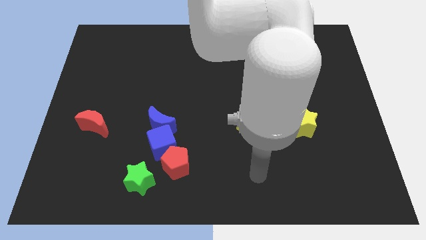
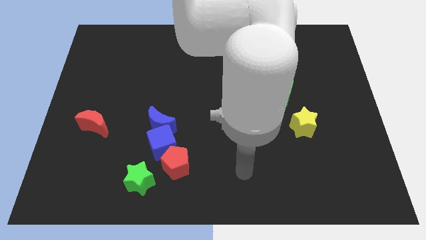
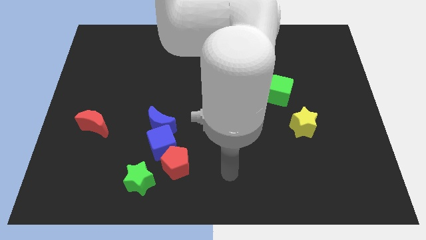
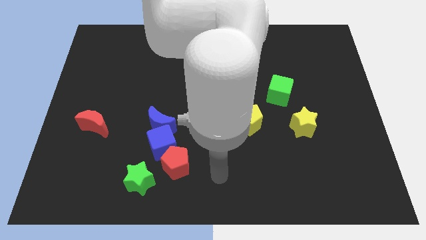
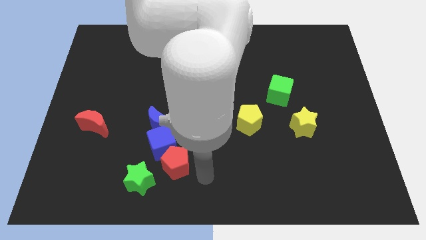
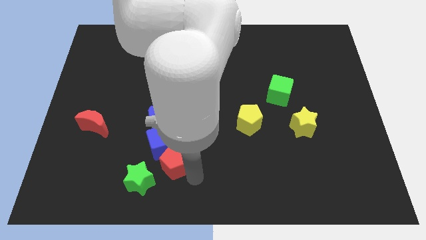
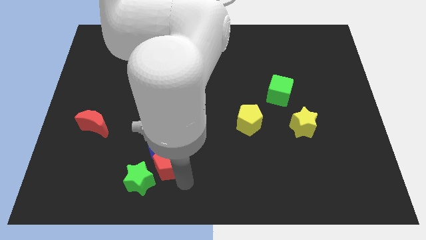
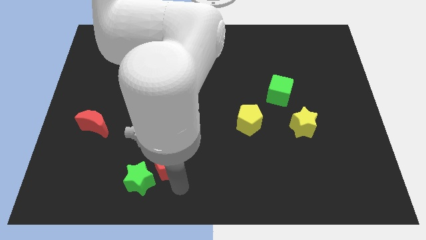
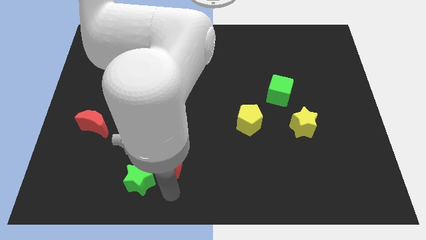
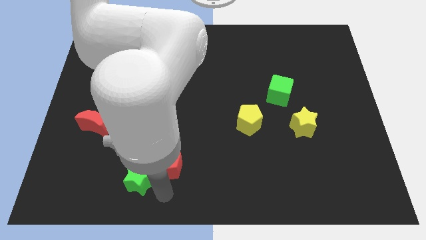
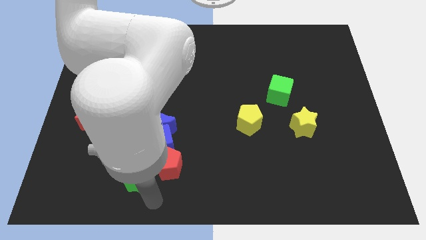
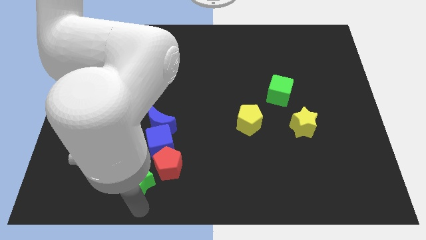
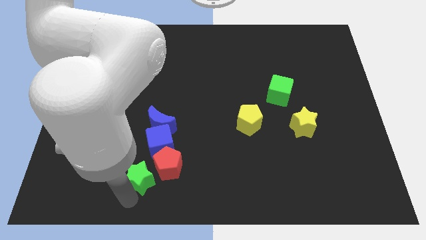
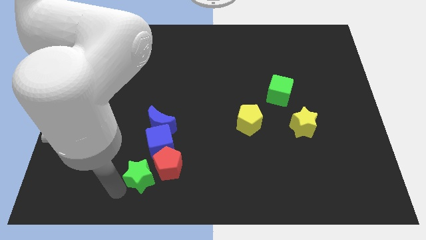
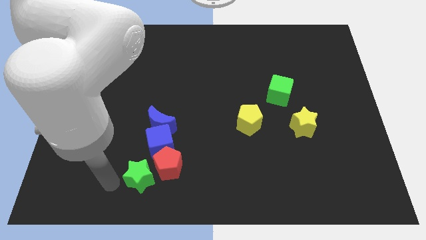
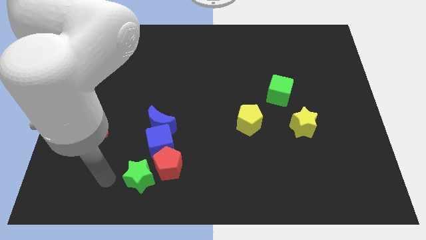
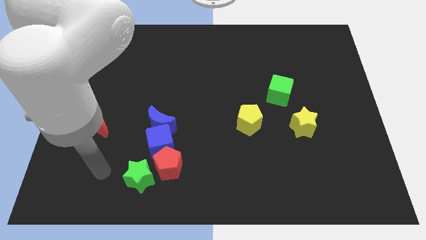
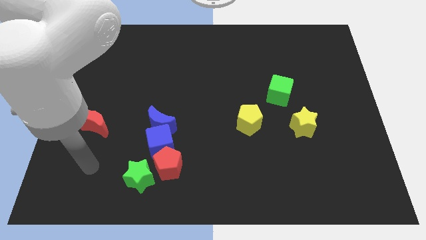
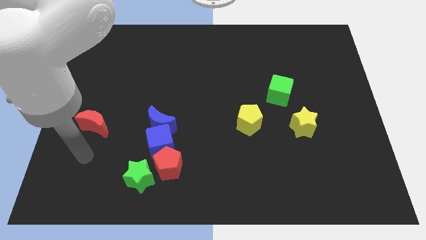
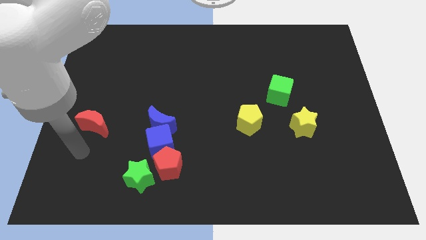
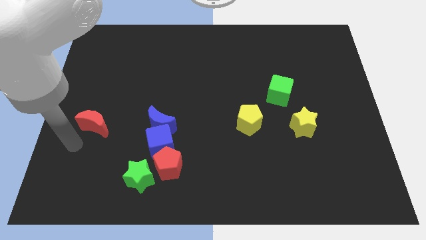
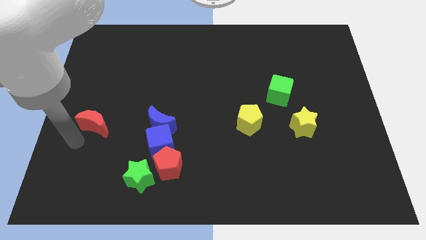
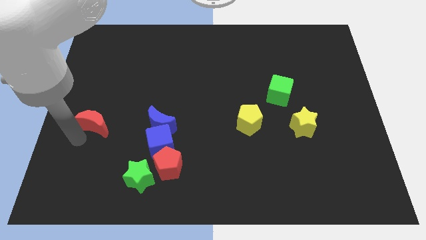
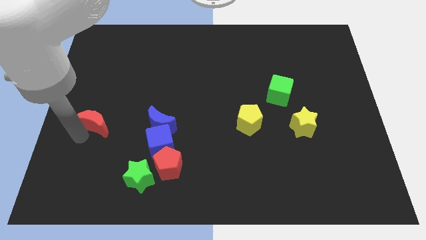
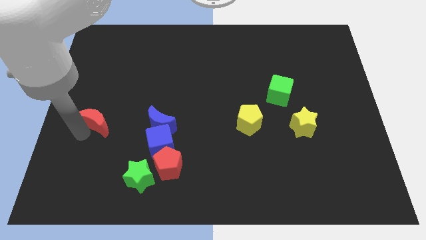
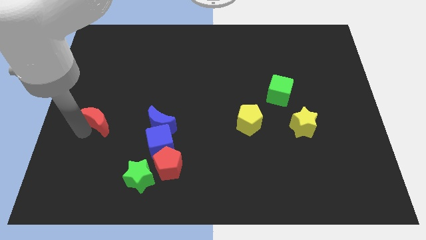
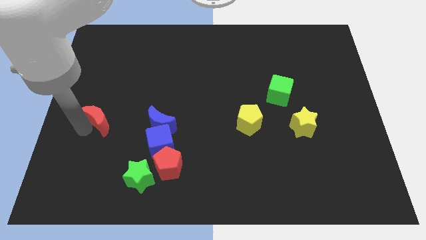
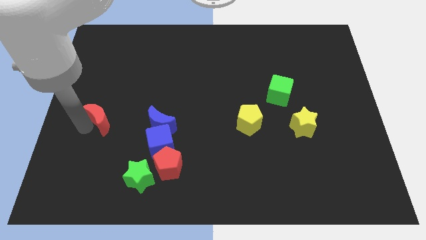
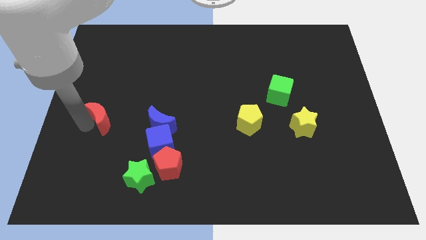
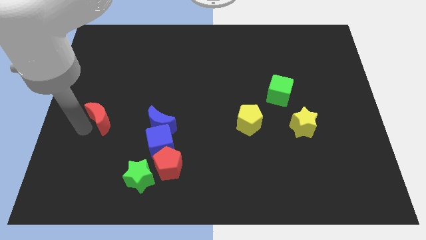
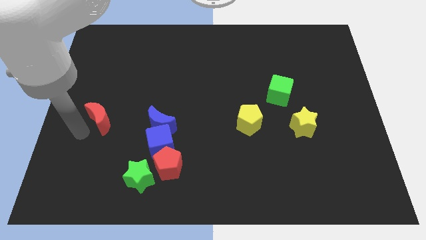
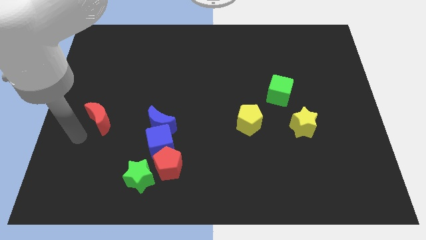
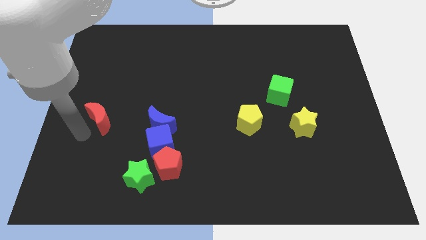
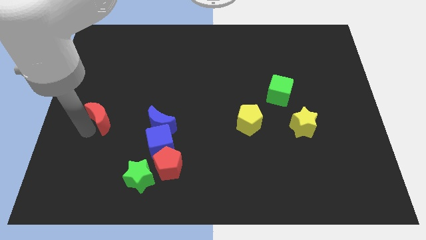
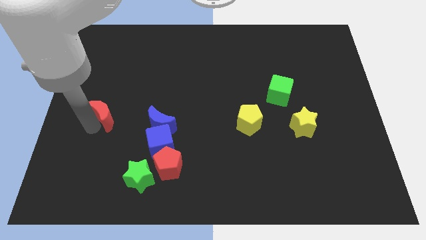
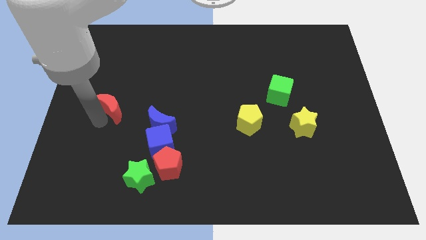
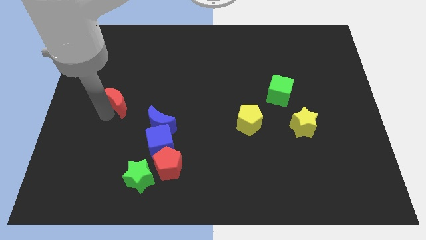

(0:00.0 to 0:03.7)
push the red moon a bit up and then to the right

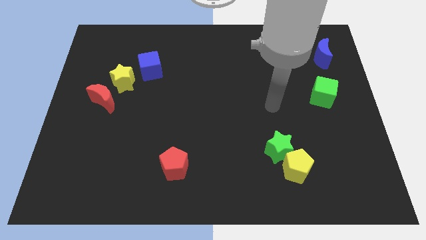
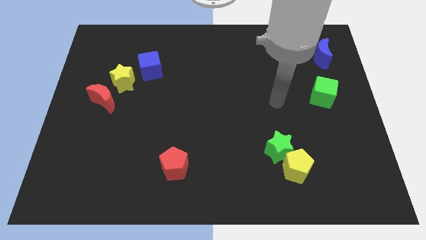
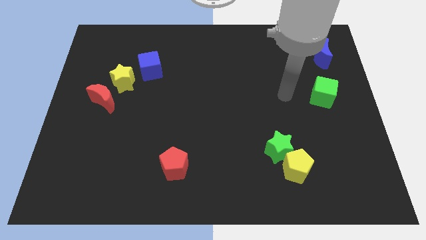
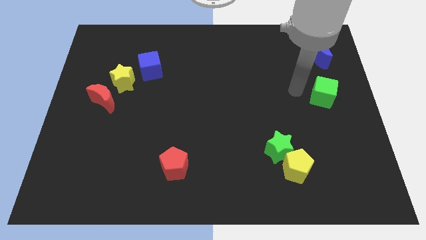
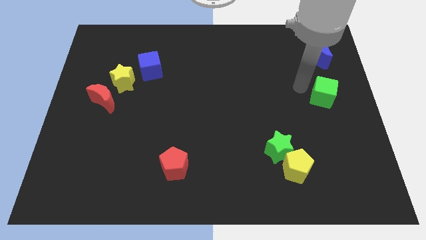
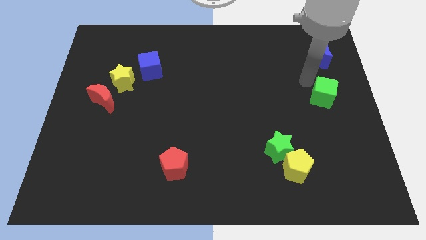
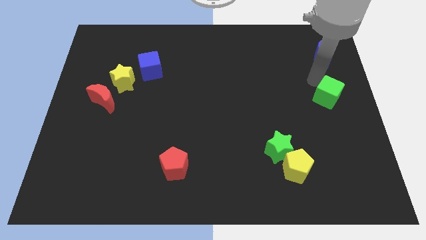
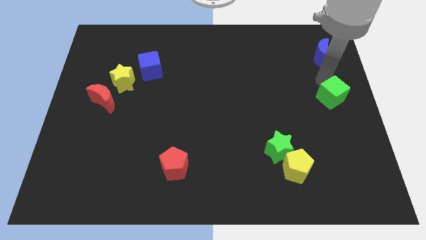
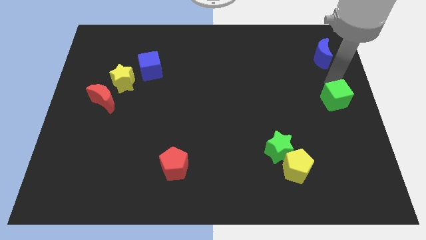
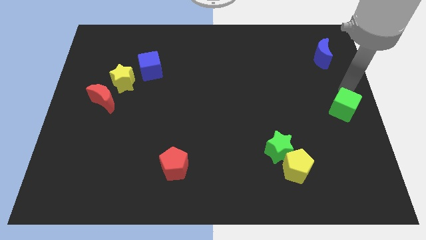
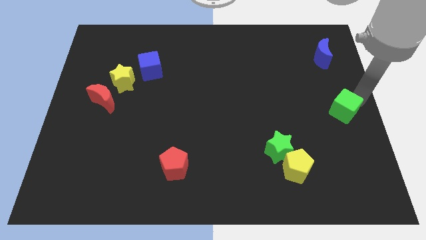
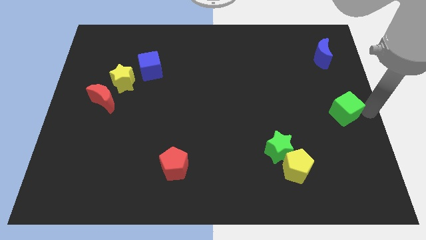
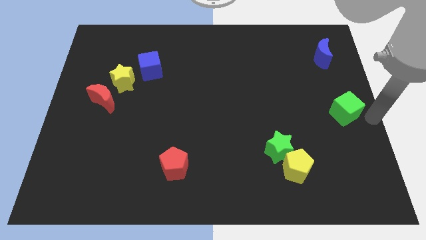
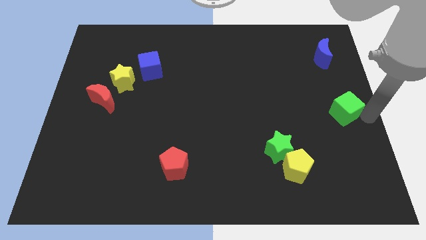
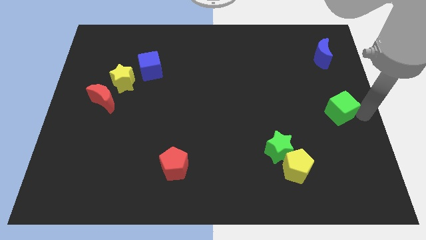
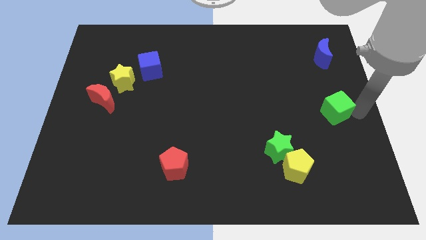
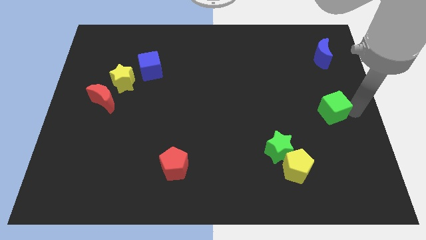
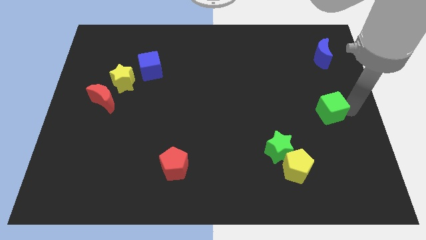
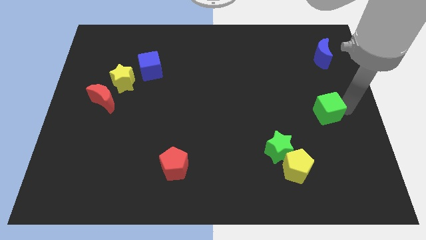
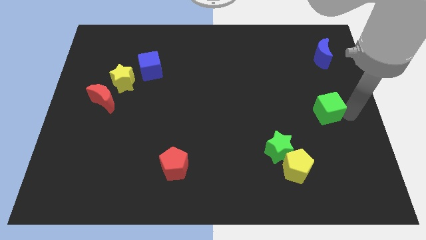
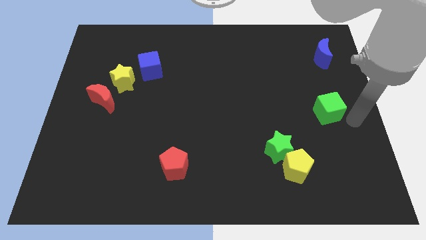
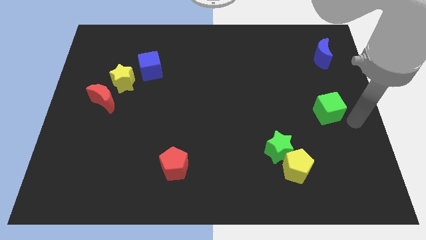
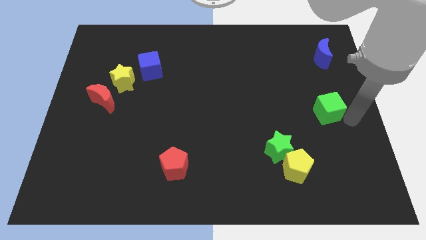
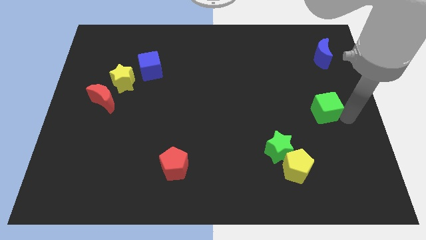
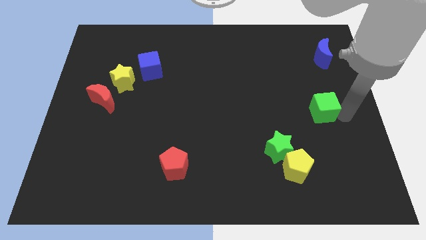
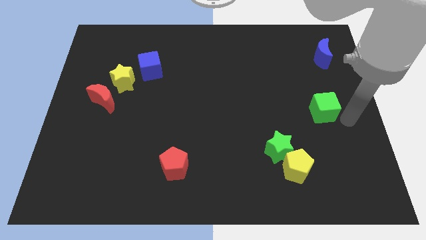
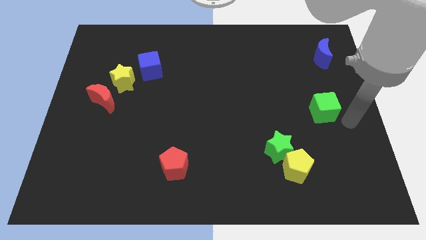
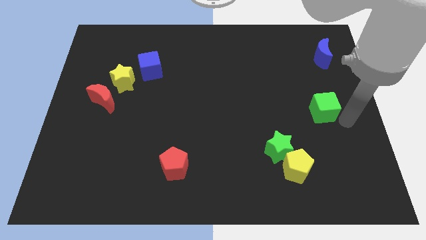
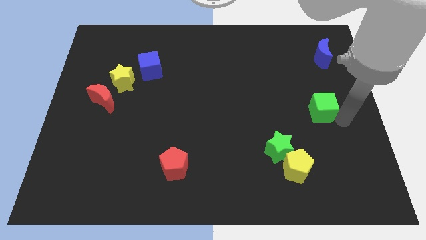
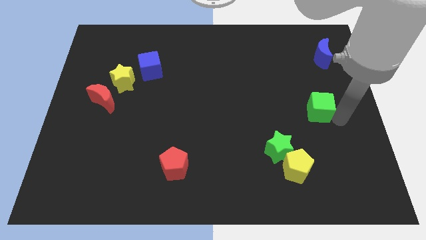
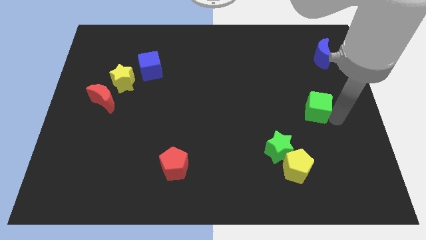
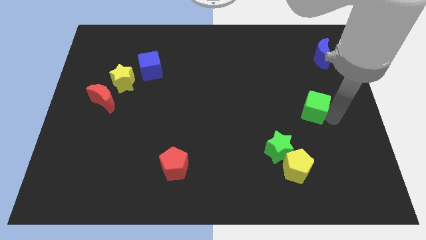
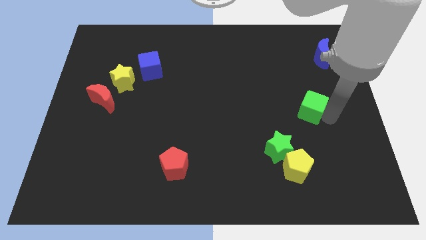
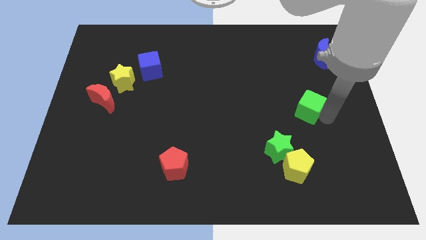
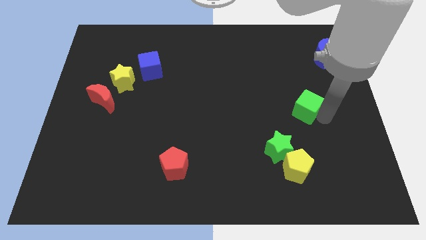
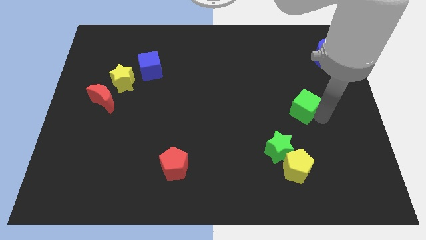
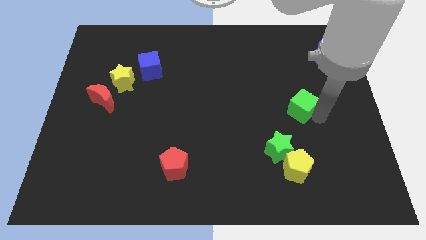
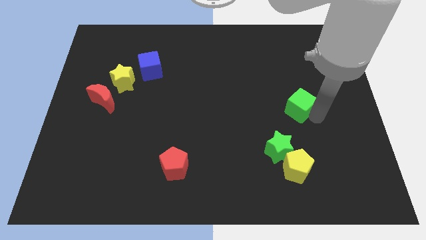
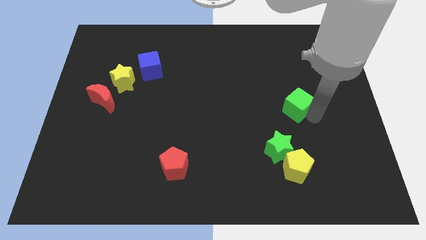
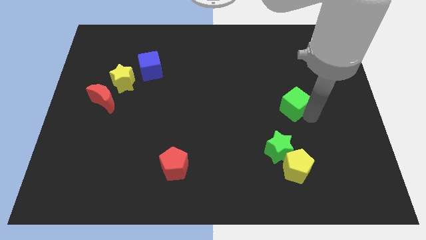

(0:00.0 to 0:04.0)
slightly move the green cube left

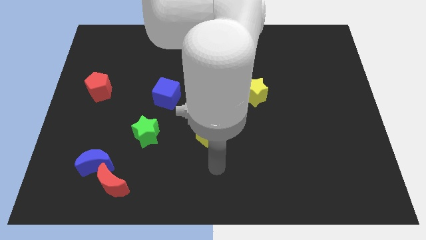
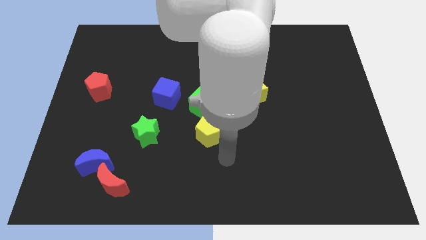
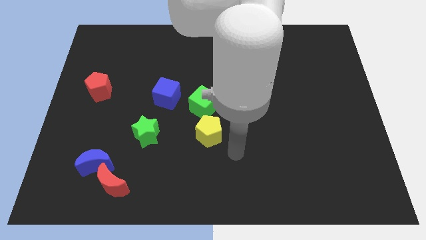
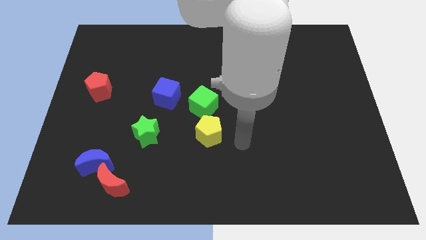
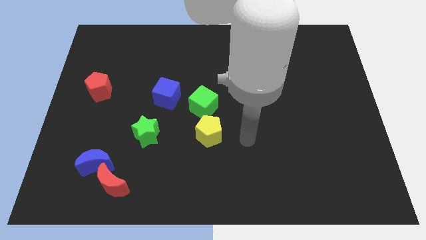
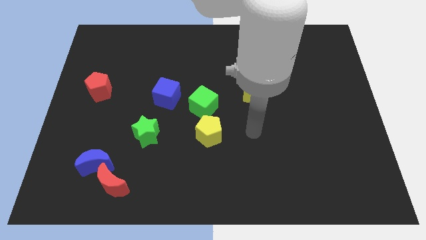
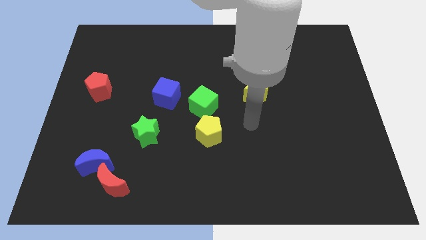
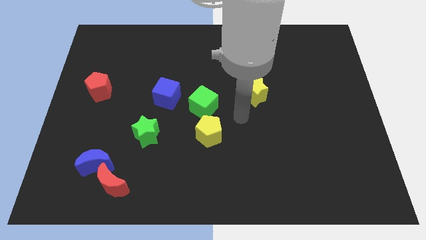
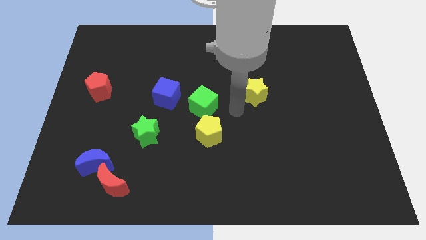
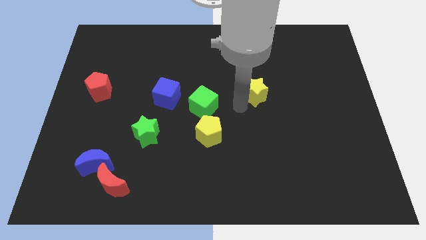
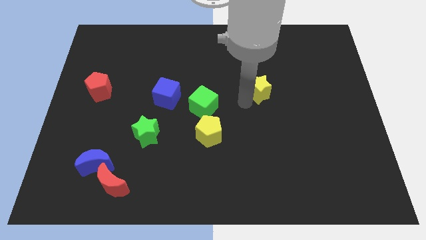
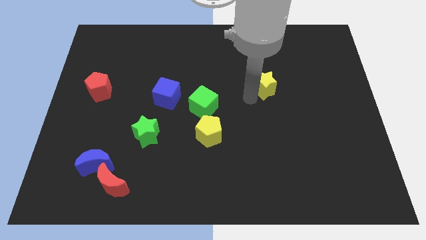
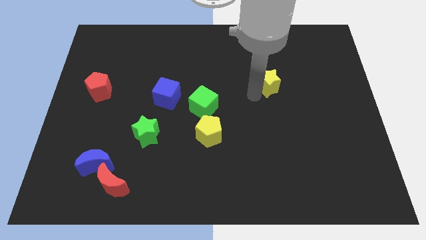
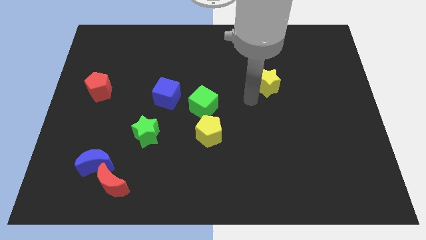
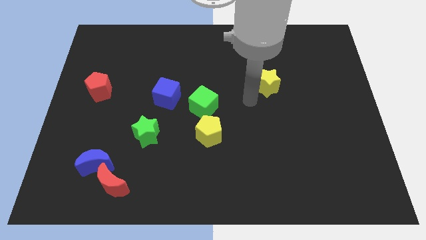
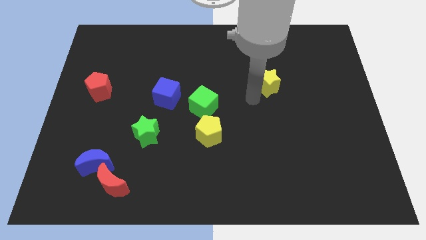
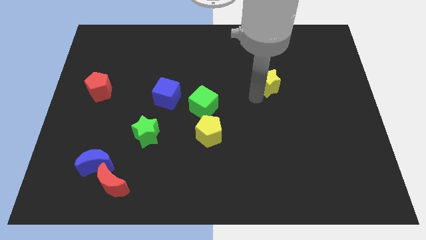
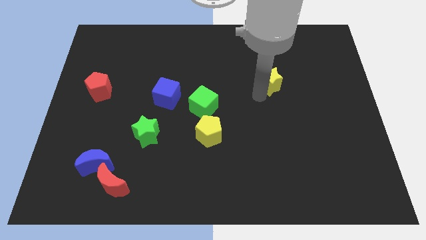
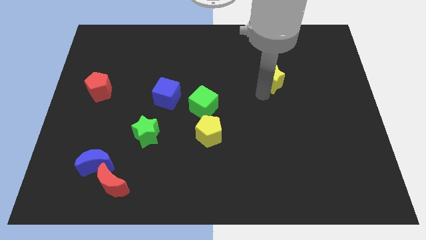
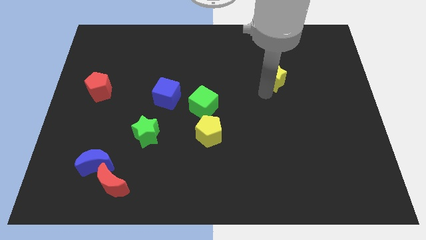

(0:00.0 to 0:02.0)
slide the yellow star up and right diagonally somewhat
